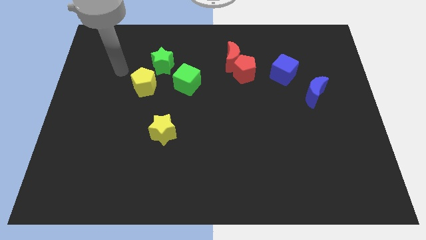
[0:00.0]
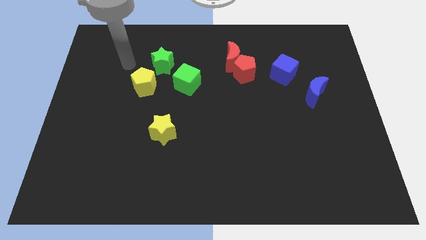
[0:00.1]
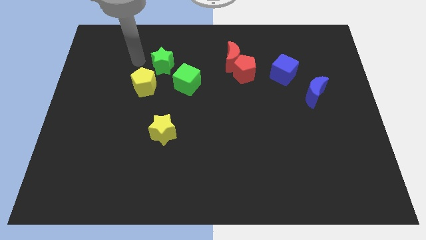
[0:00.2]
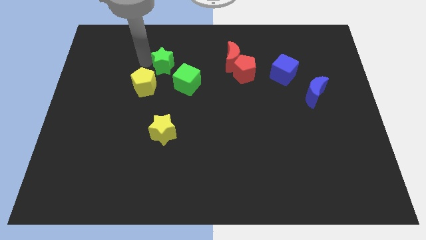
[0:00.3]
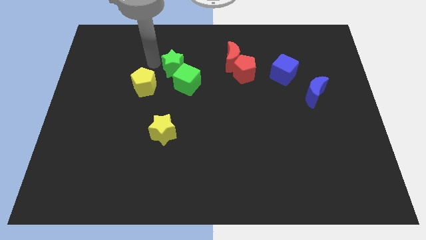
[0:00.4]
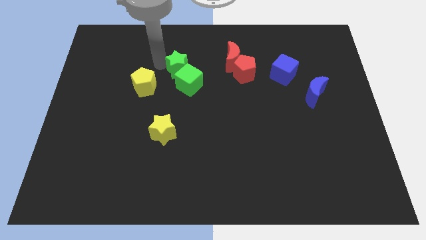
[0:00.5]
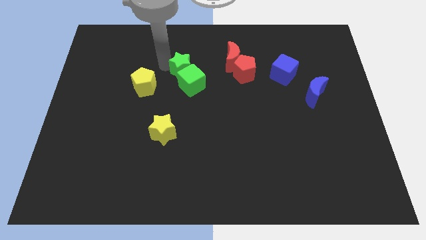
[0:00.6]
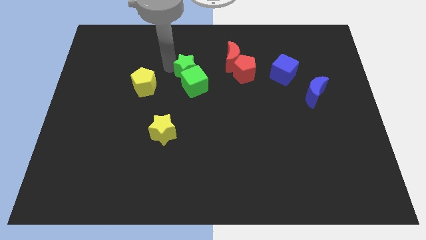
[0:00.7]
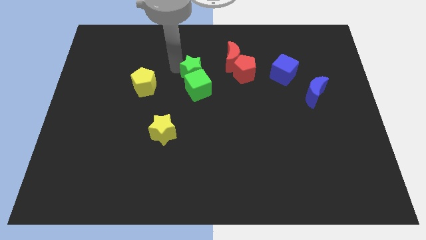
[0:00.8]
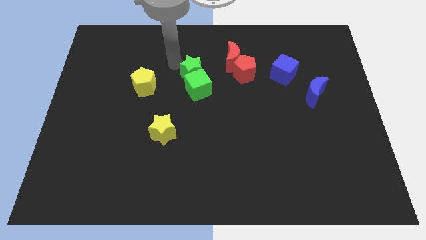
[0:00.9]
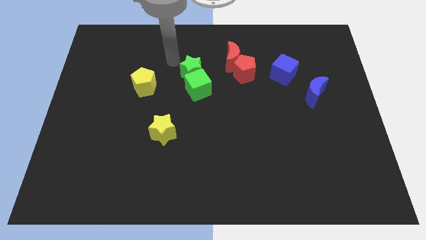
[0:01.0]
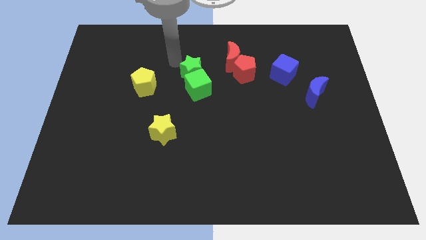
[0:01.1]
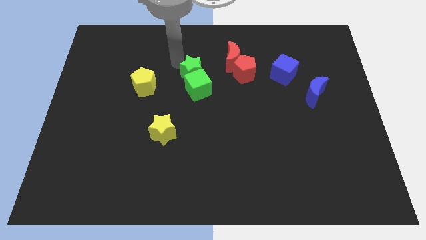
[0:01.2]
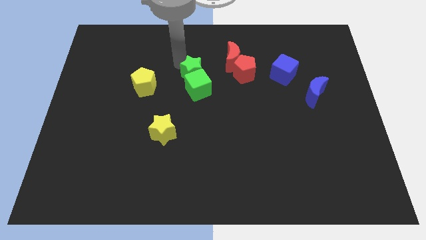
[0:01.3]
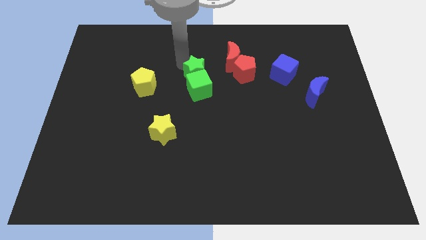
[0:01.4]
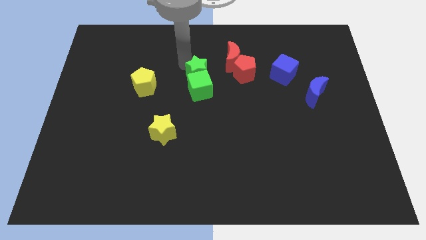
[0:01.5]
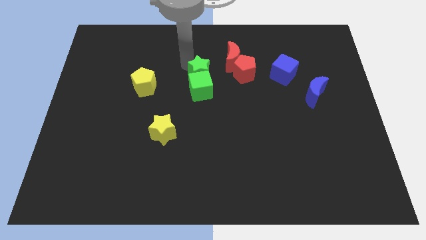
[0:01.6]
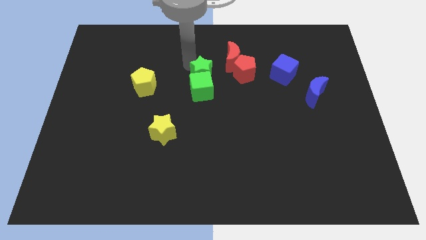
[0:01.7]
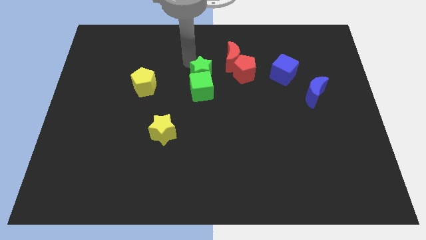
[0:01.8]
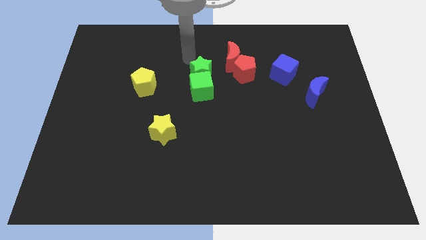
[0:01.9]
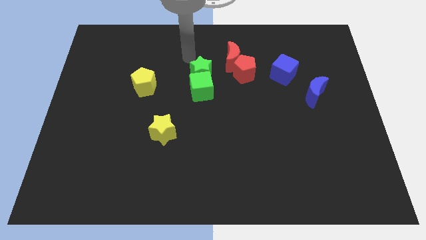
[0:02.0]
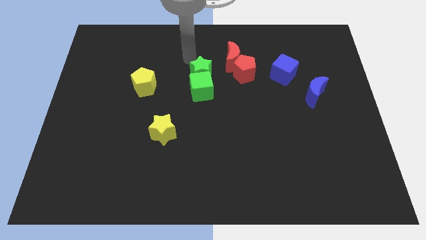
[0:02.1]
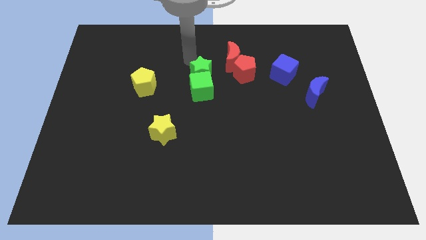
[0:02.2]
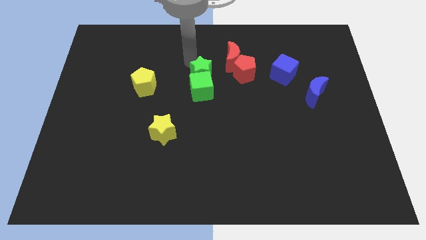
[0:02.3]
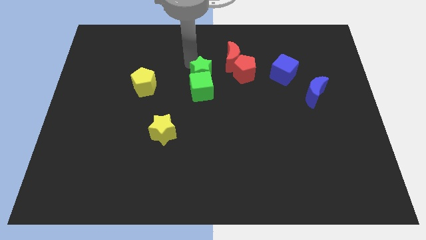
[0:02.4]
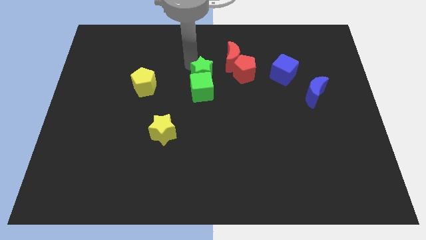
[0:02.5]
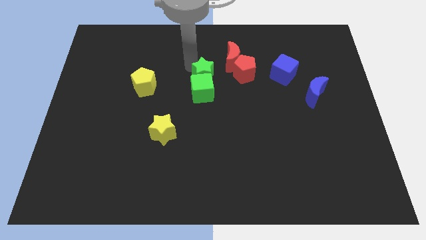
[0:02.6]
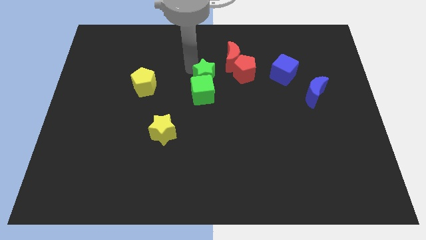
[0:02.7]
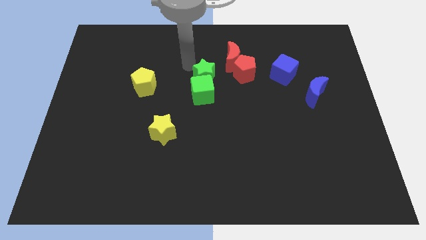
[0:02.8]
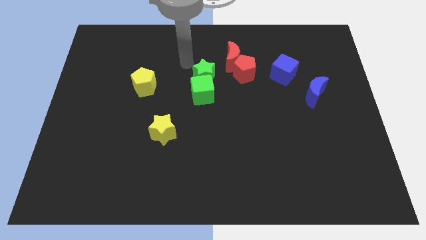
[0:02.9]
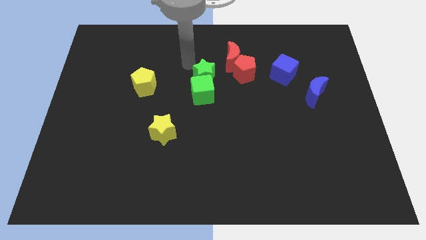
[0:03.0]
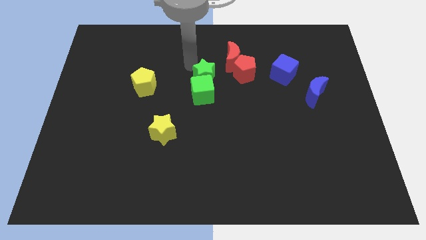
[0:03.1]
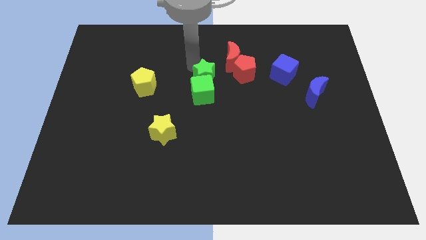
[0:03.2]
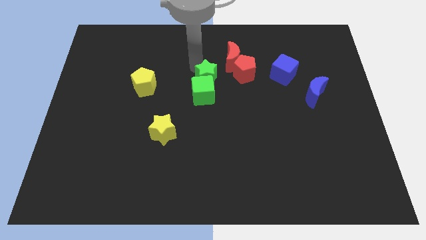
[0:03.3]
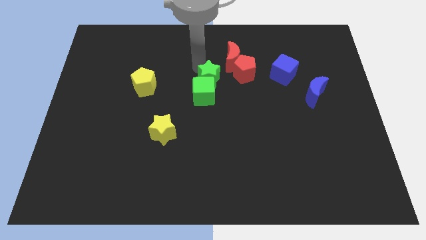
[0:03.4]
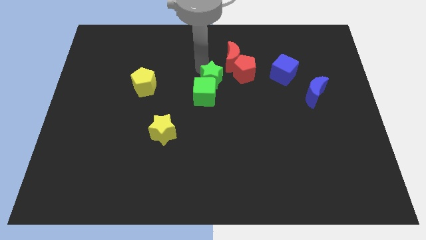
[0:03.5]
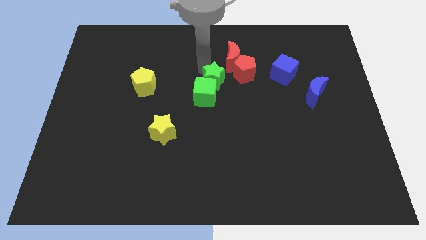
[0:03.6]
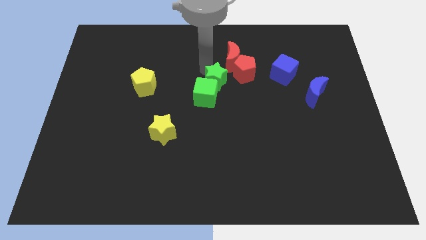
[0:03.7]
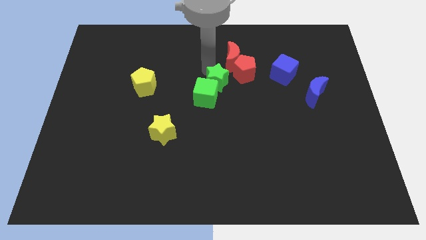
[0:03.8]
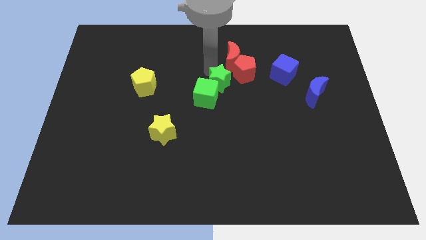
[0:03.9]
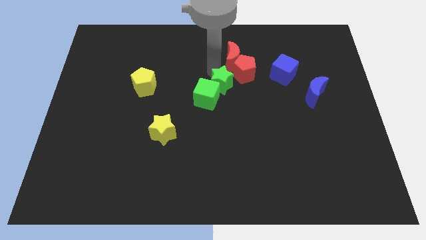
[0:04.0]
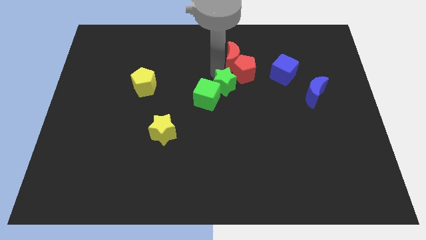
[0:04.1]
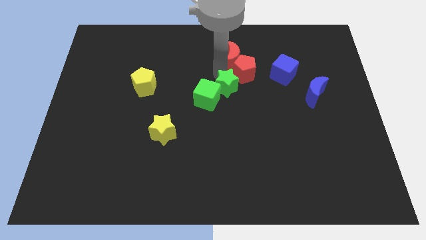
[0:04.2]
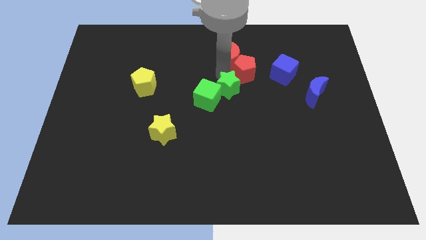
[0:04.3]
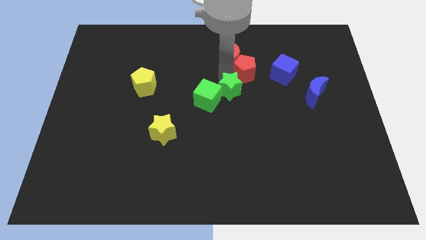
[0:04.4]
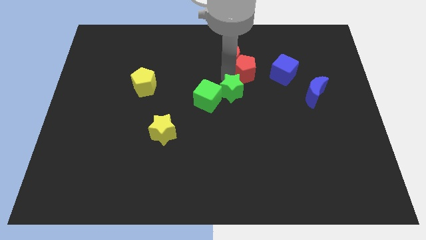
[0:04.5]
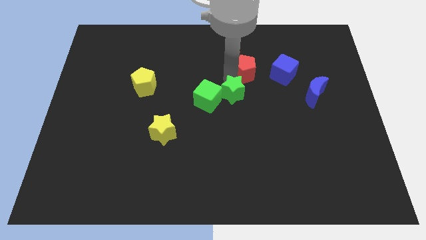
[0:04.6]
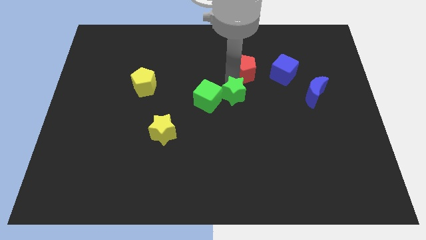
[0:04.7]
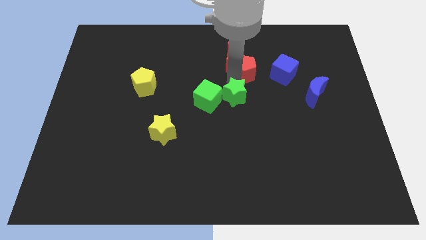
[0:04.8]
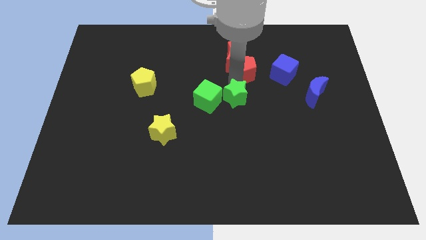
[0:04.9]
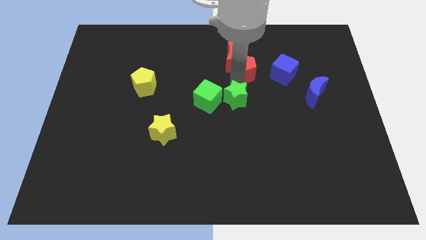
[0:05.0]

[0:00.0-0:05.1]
slide the green star down and to the right

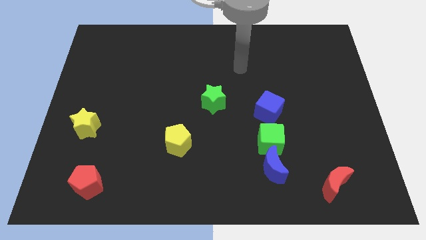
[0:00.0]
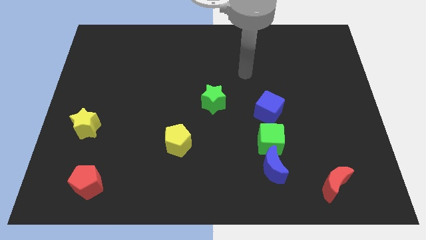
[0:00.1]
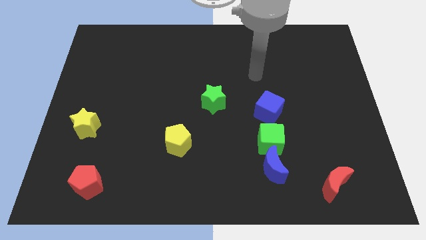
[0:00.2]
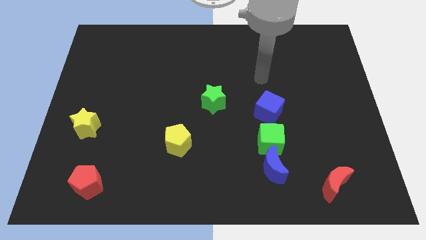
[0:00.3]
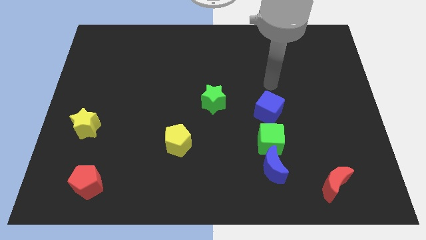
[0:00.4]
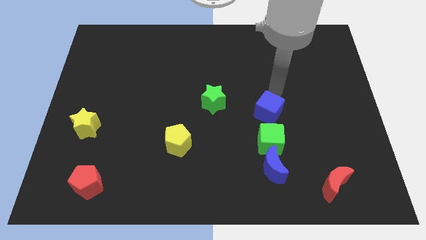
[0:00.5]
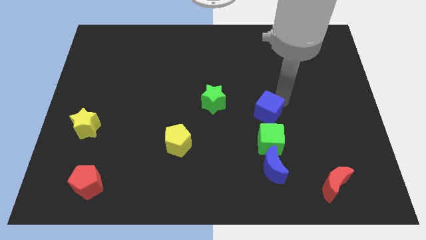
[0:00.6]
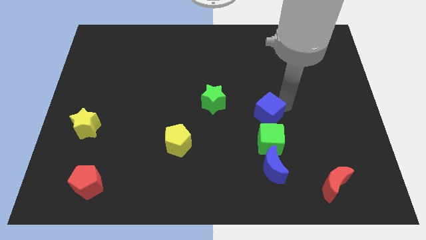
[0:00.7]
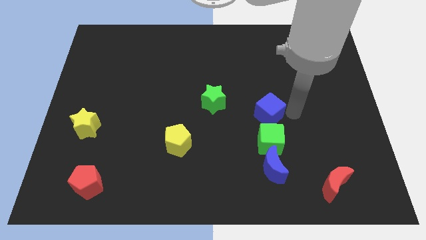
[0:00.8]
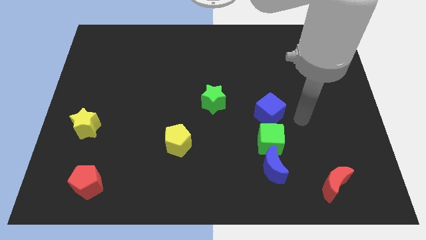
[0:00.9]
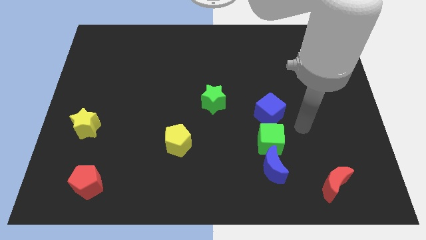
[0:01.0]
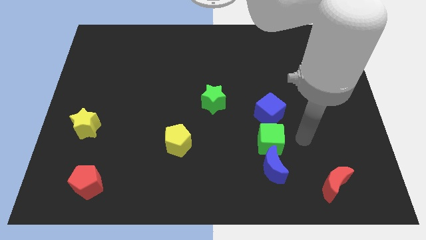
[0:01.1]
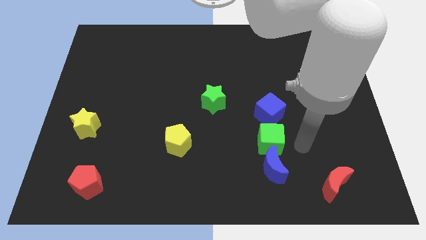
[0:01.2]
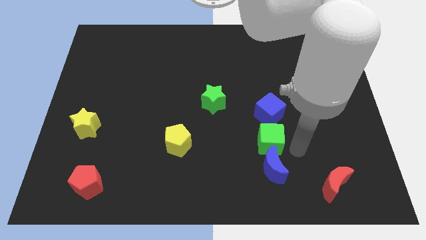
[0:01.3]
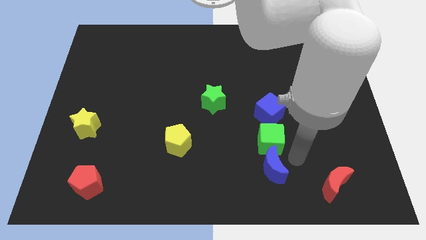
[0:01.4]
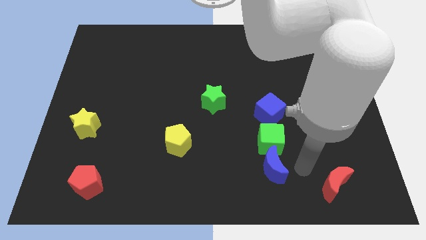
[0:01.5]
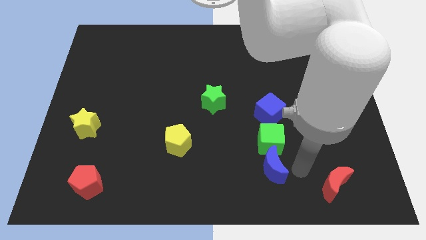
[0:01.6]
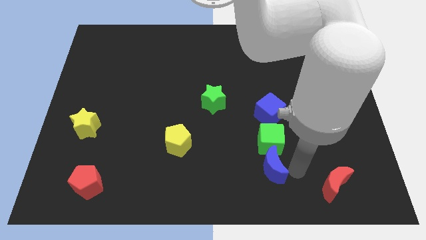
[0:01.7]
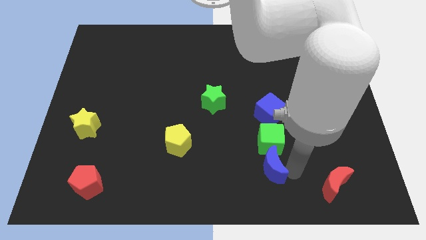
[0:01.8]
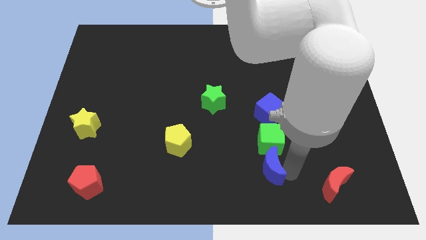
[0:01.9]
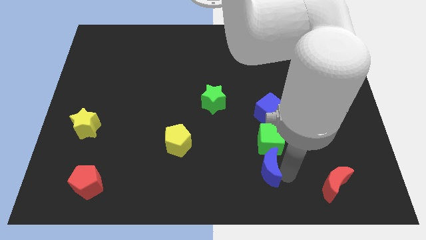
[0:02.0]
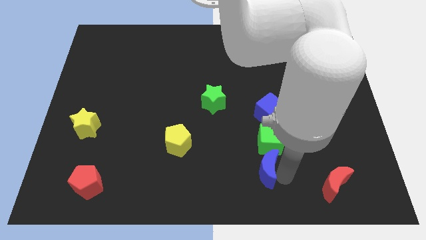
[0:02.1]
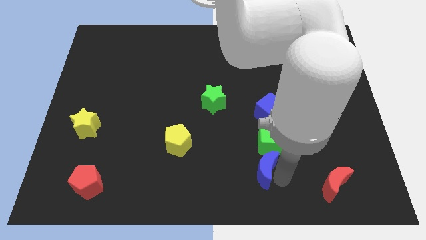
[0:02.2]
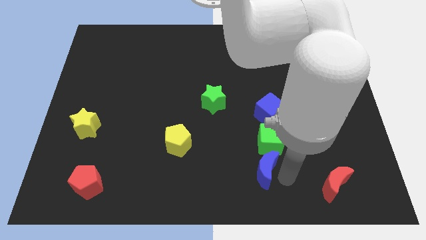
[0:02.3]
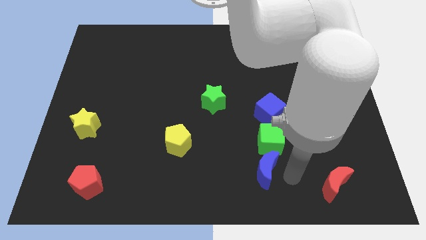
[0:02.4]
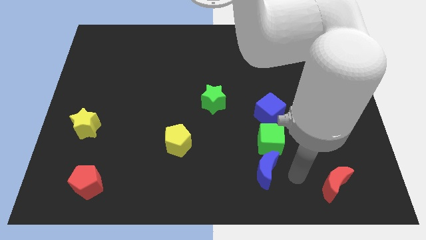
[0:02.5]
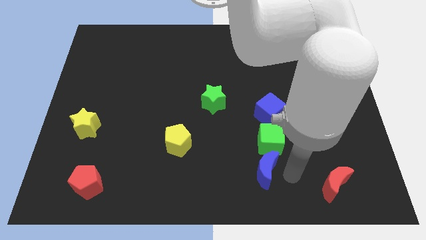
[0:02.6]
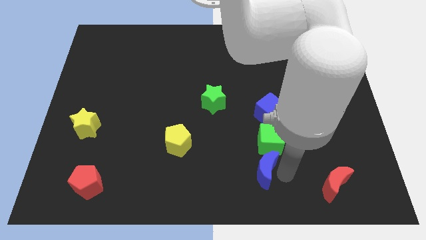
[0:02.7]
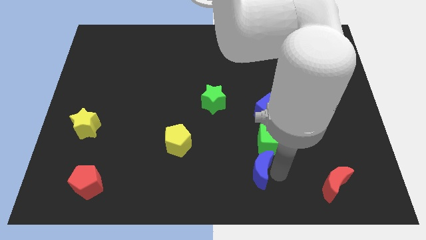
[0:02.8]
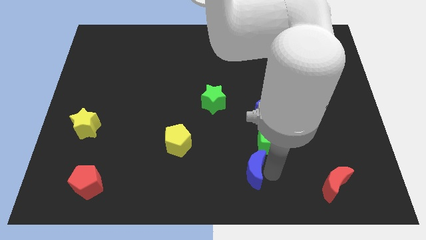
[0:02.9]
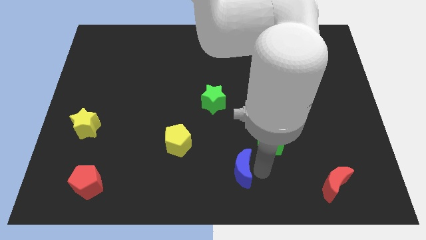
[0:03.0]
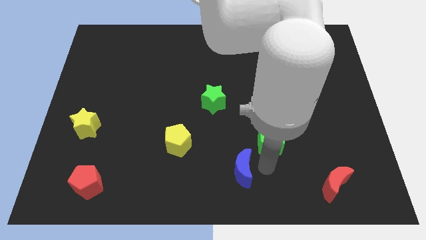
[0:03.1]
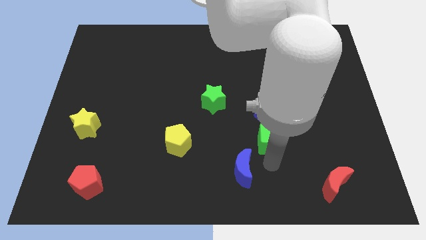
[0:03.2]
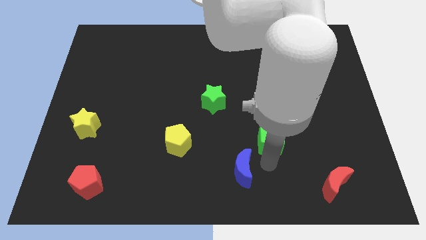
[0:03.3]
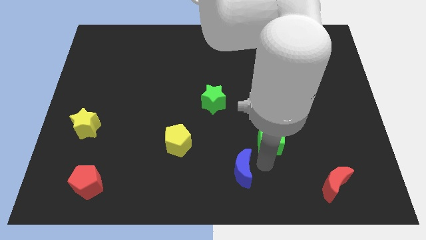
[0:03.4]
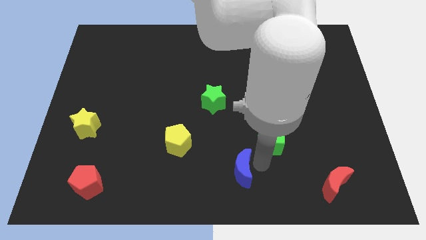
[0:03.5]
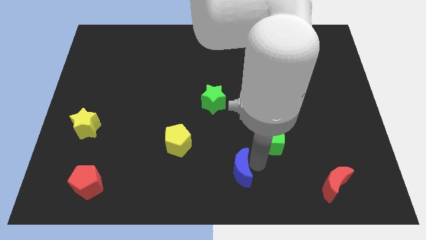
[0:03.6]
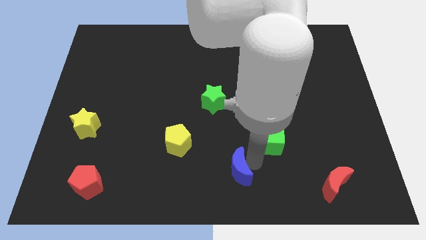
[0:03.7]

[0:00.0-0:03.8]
push the blue moon a little left
